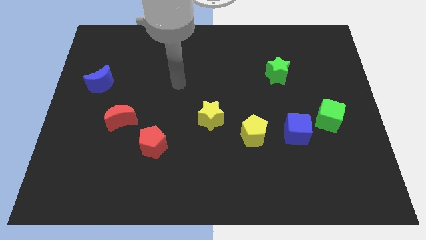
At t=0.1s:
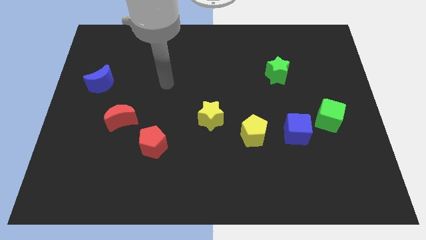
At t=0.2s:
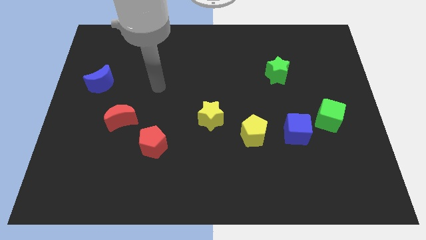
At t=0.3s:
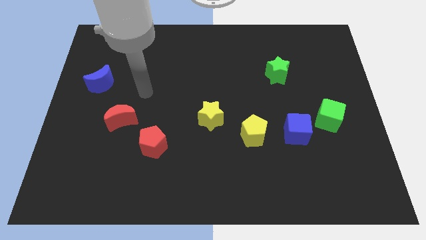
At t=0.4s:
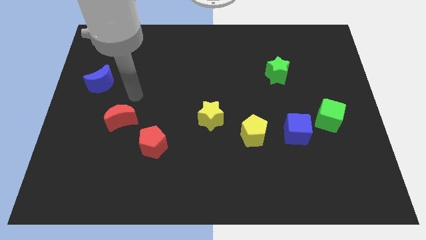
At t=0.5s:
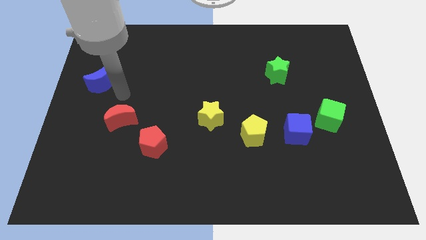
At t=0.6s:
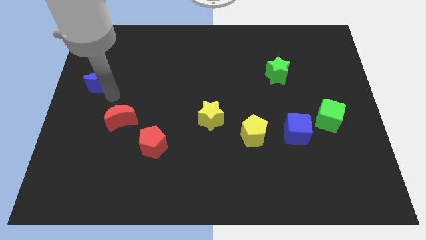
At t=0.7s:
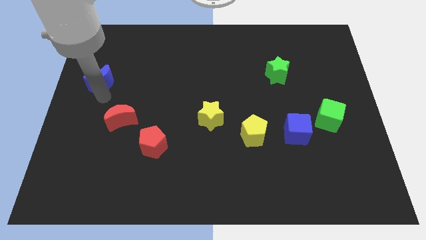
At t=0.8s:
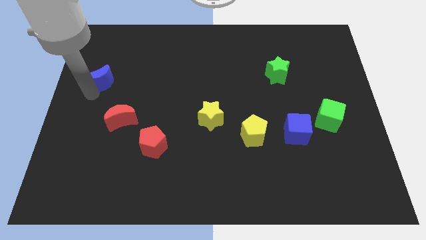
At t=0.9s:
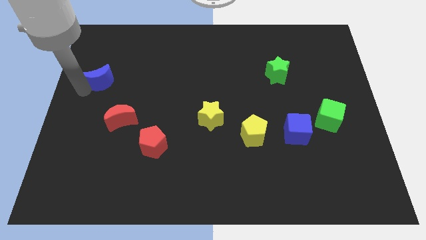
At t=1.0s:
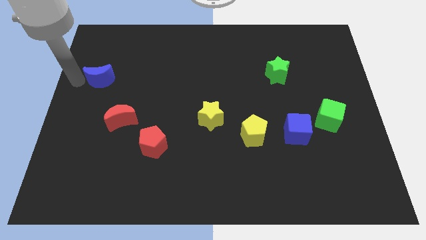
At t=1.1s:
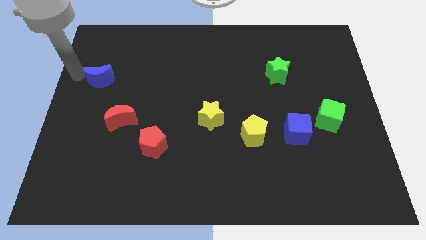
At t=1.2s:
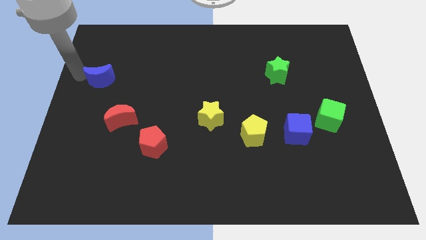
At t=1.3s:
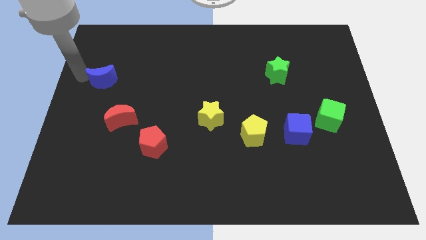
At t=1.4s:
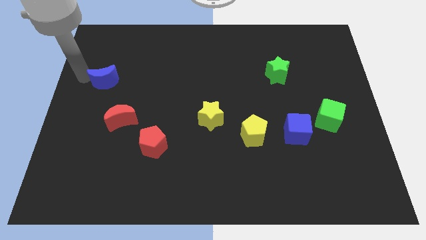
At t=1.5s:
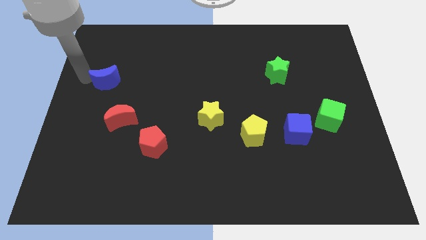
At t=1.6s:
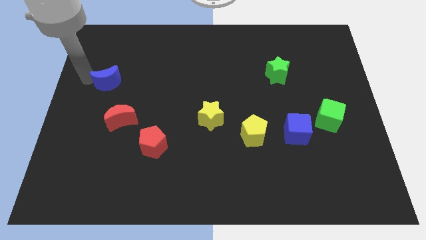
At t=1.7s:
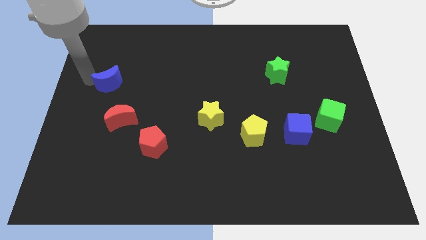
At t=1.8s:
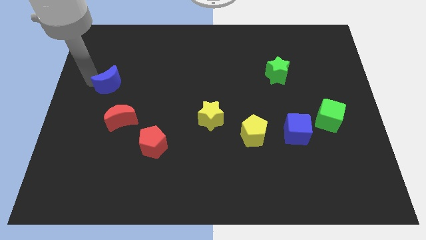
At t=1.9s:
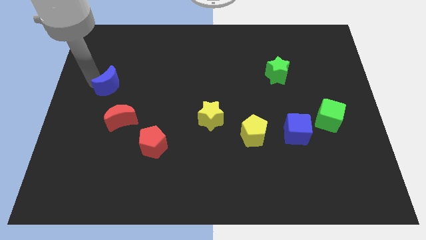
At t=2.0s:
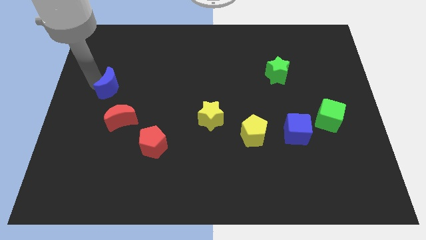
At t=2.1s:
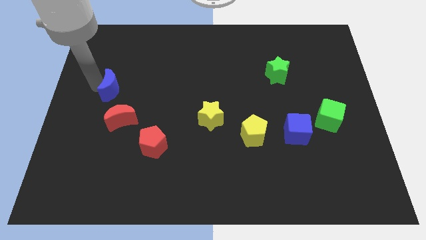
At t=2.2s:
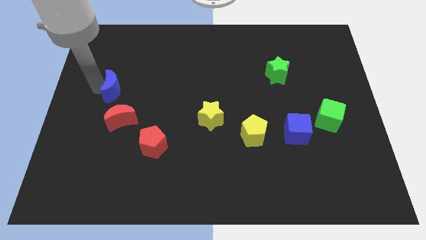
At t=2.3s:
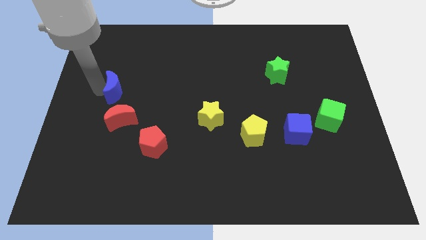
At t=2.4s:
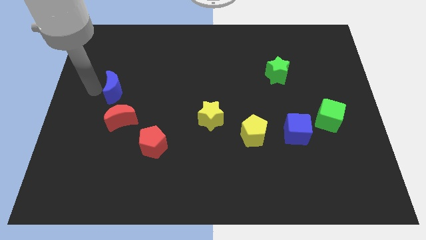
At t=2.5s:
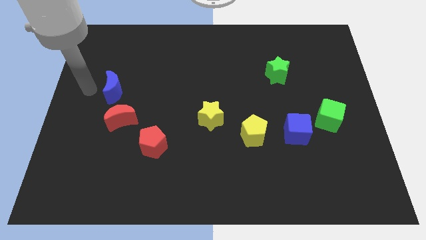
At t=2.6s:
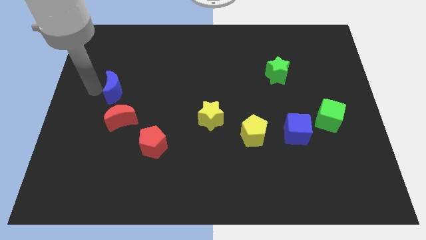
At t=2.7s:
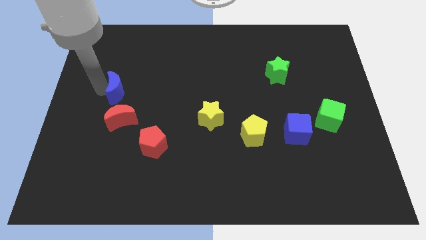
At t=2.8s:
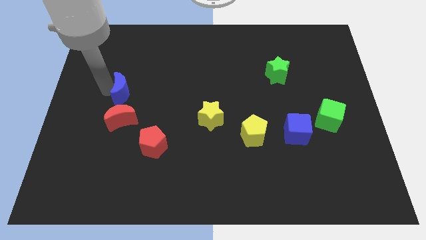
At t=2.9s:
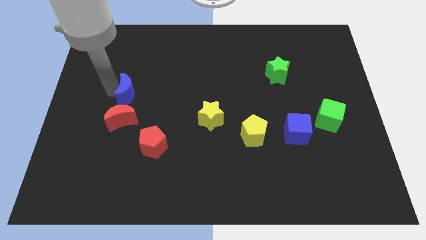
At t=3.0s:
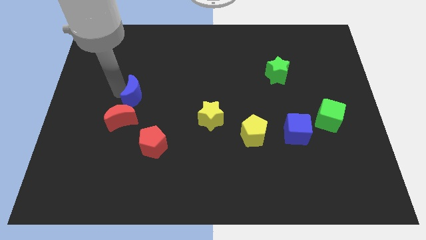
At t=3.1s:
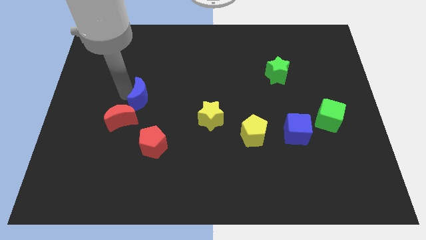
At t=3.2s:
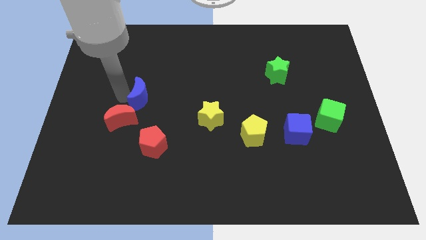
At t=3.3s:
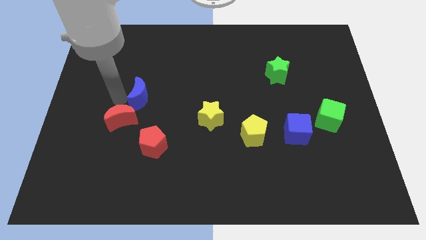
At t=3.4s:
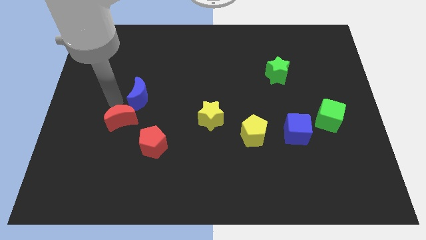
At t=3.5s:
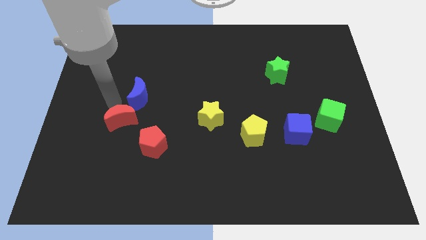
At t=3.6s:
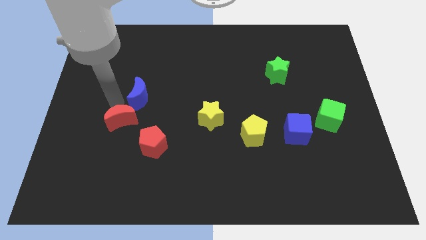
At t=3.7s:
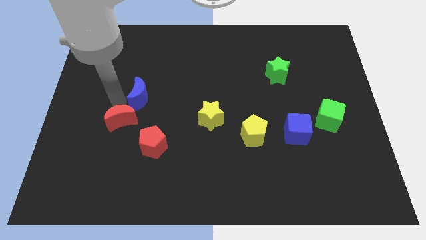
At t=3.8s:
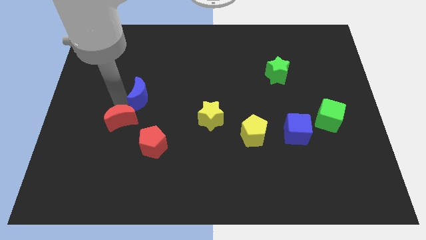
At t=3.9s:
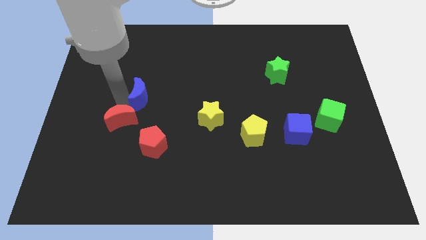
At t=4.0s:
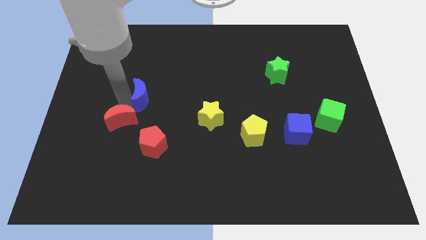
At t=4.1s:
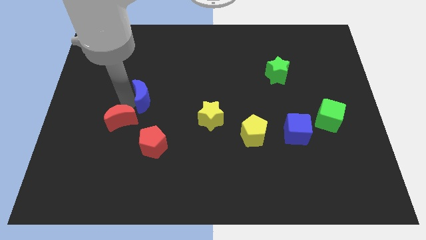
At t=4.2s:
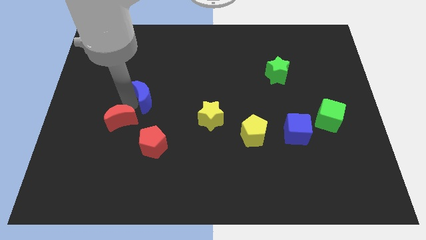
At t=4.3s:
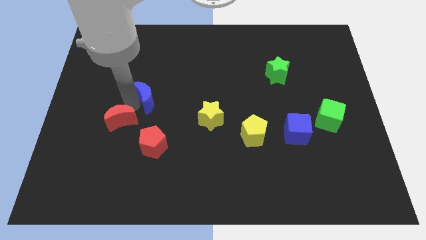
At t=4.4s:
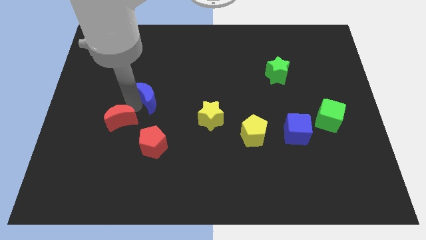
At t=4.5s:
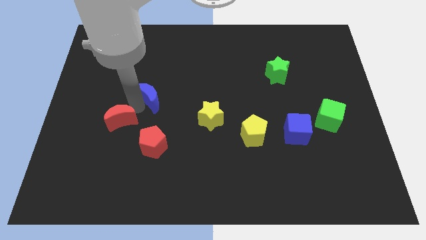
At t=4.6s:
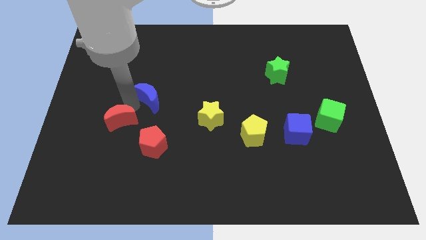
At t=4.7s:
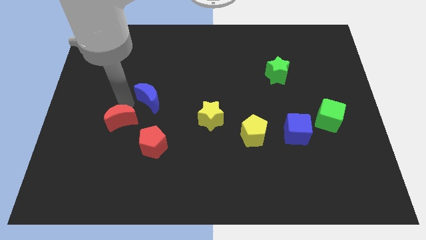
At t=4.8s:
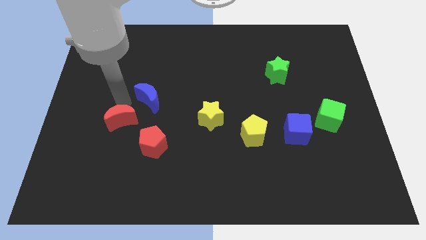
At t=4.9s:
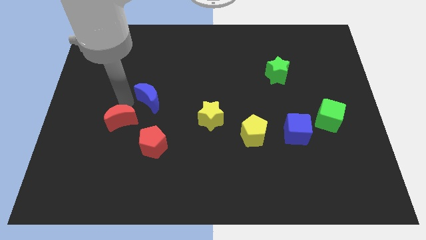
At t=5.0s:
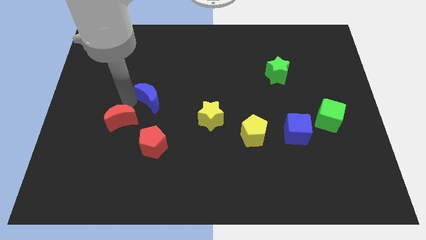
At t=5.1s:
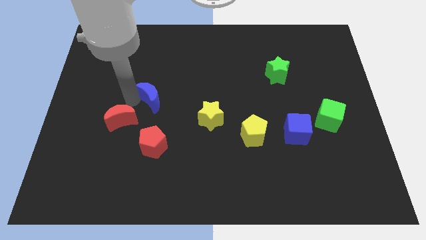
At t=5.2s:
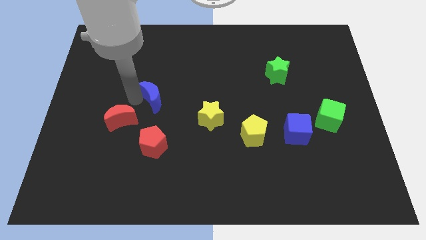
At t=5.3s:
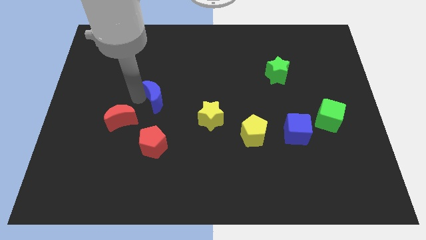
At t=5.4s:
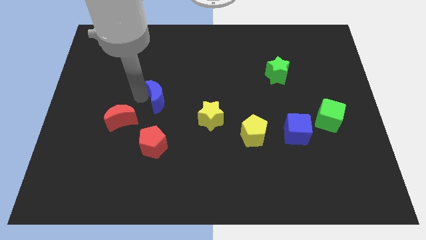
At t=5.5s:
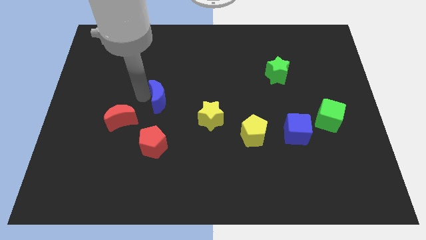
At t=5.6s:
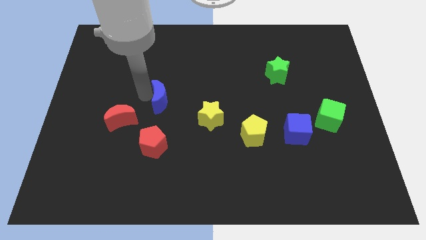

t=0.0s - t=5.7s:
push the blue moon to the center
